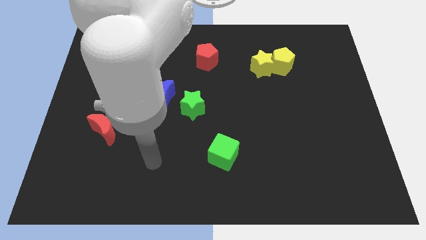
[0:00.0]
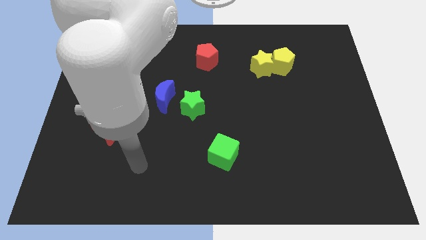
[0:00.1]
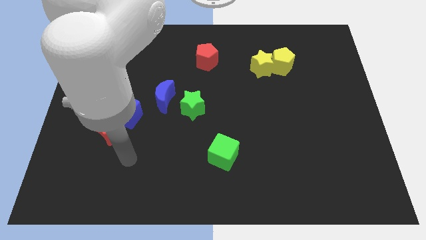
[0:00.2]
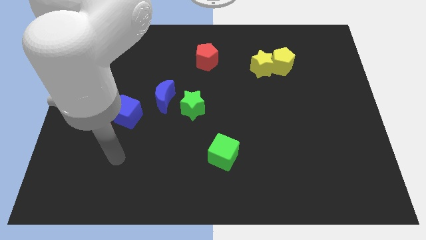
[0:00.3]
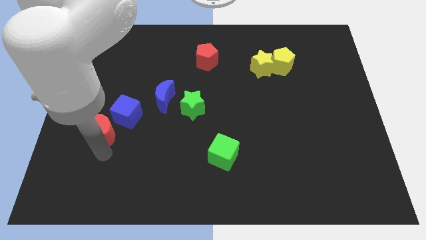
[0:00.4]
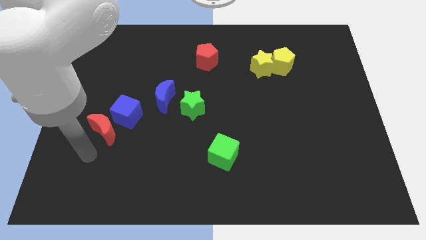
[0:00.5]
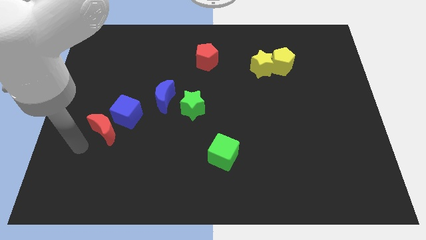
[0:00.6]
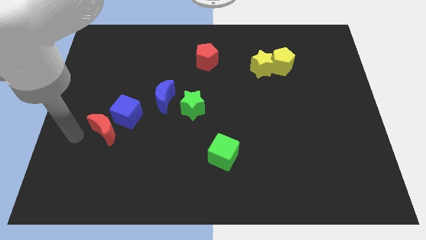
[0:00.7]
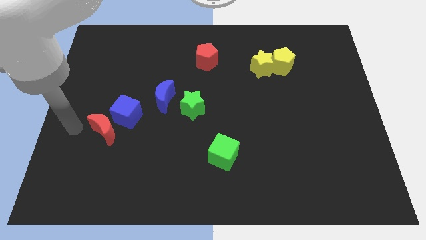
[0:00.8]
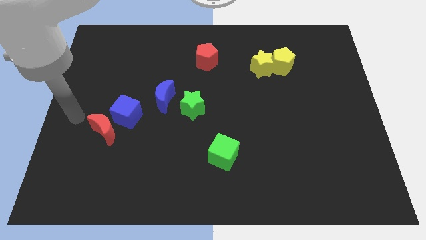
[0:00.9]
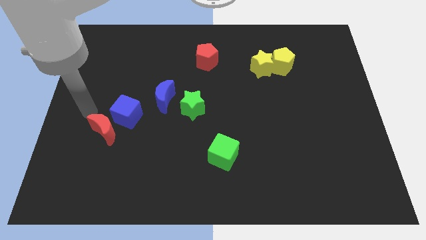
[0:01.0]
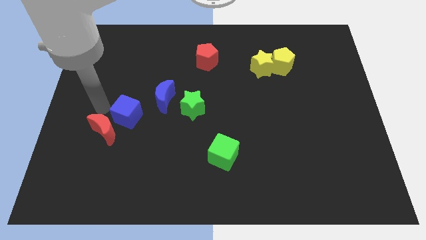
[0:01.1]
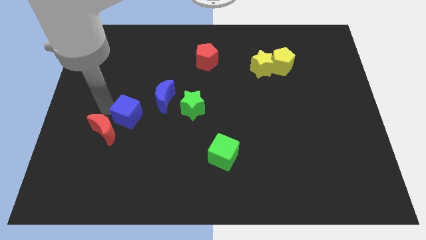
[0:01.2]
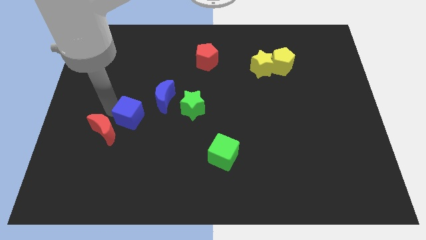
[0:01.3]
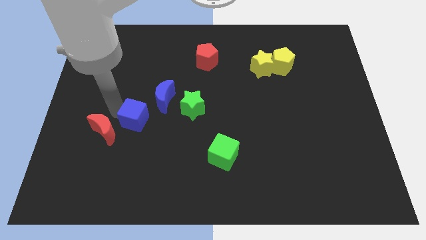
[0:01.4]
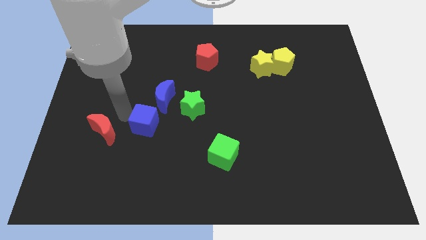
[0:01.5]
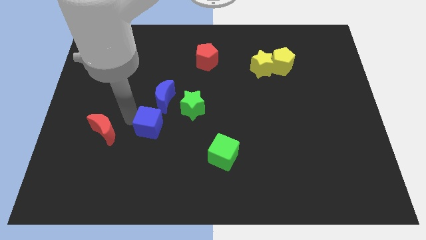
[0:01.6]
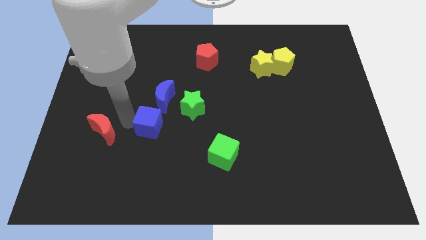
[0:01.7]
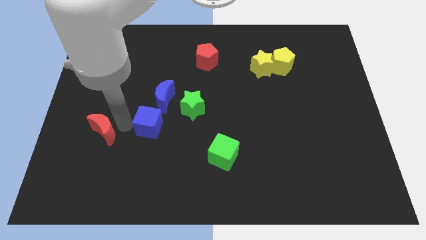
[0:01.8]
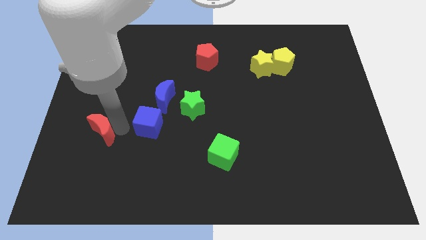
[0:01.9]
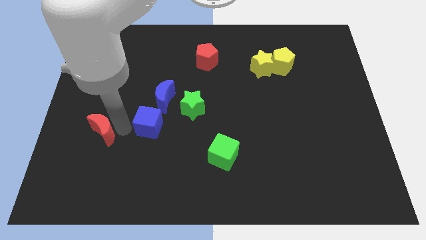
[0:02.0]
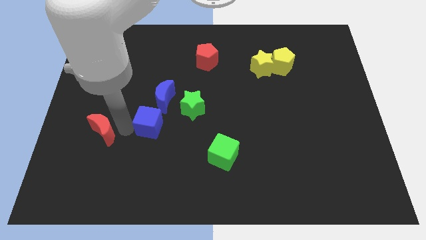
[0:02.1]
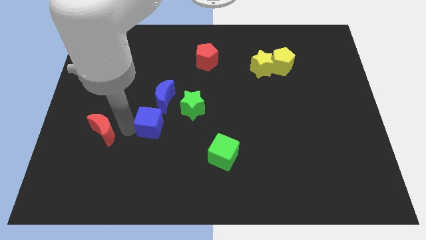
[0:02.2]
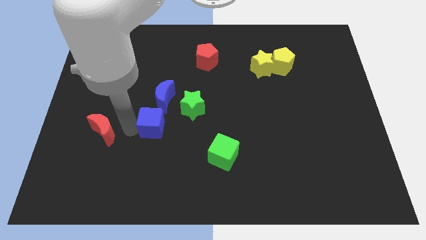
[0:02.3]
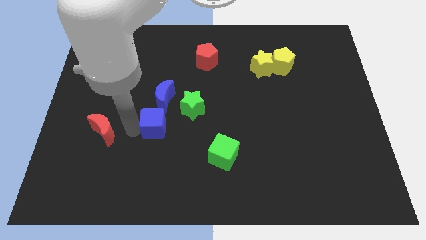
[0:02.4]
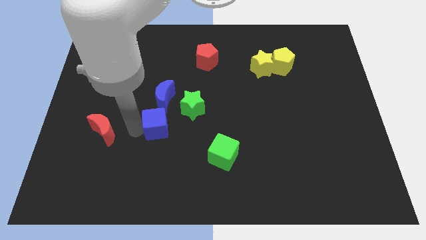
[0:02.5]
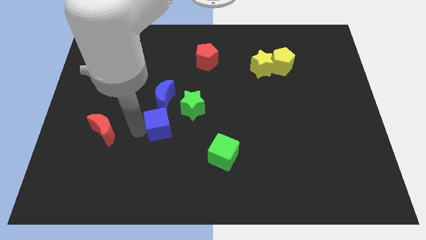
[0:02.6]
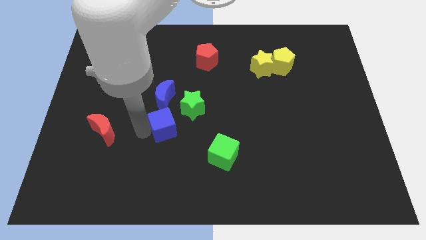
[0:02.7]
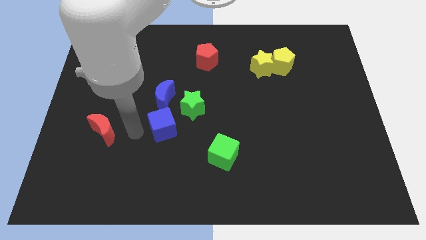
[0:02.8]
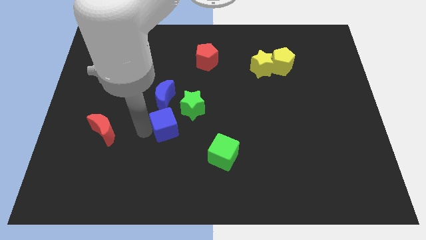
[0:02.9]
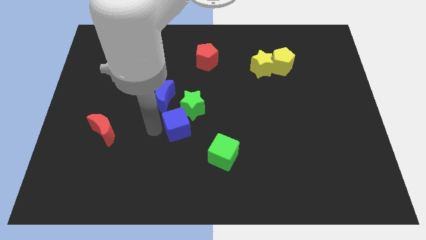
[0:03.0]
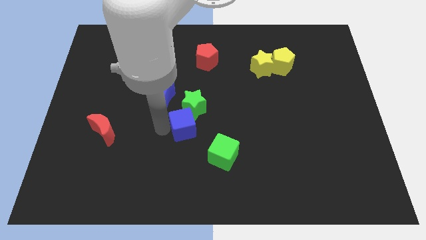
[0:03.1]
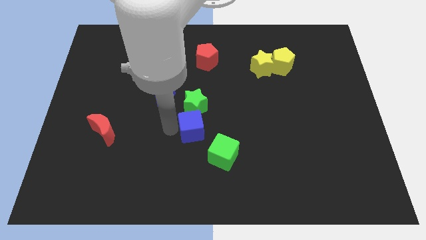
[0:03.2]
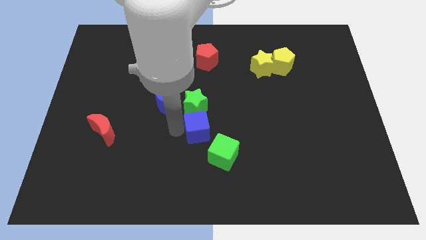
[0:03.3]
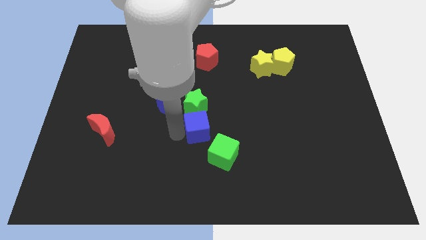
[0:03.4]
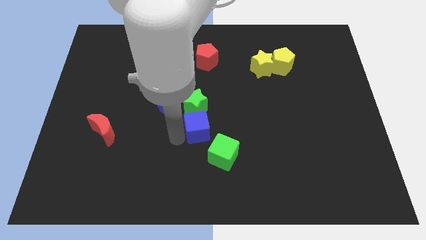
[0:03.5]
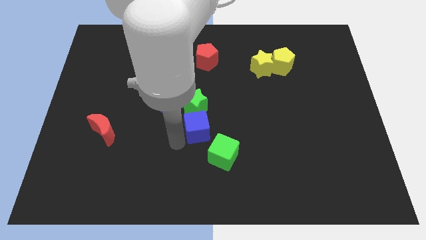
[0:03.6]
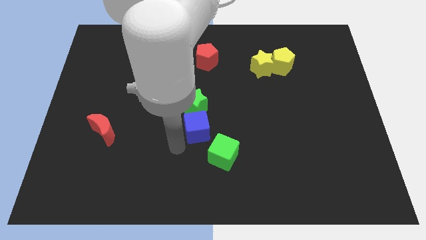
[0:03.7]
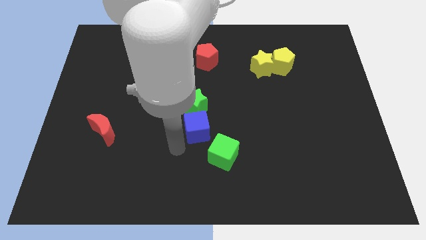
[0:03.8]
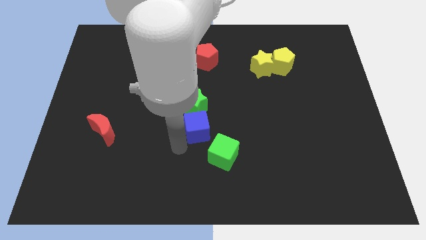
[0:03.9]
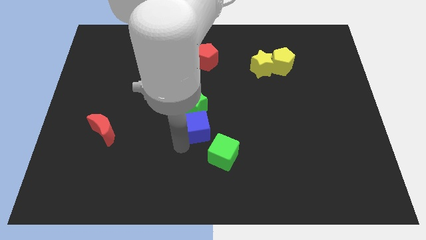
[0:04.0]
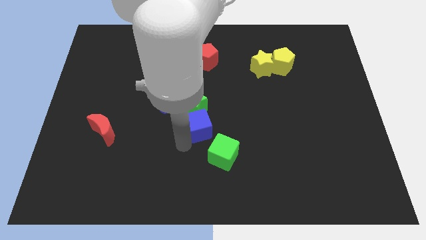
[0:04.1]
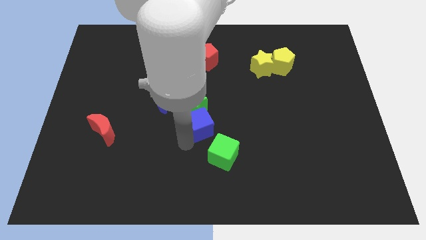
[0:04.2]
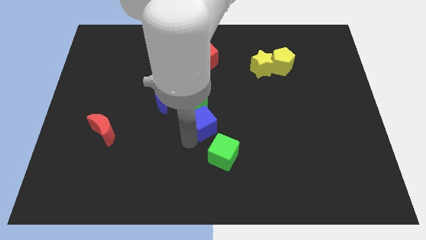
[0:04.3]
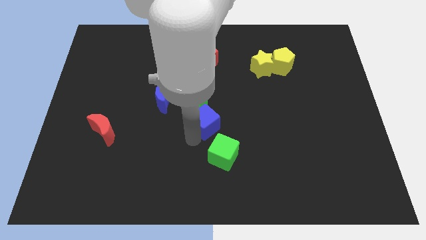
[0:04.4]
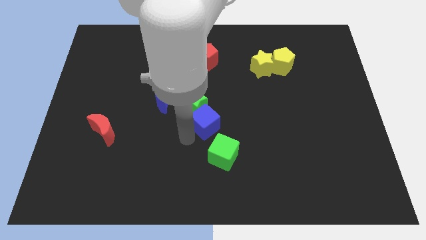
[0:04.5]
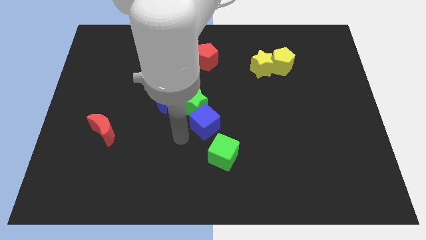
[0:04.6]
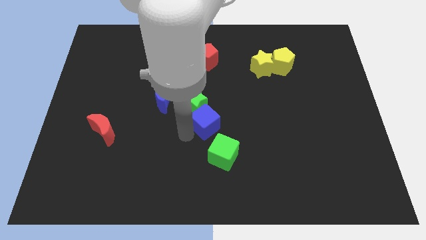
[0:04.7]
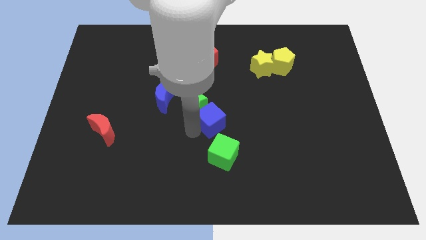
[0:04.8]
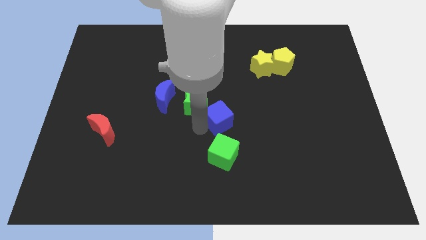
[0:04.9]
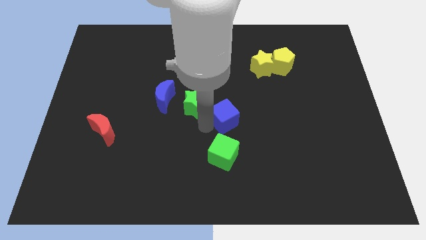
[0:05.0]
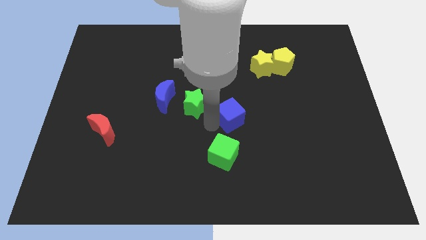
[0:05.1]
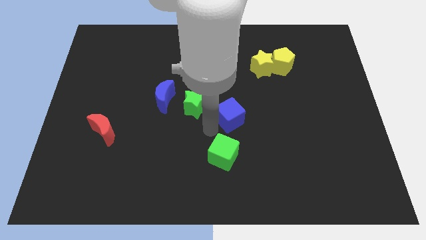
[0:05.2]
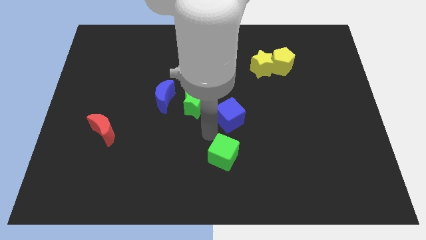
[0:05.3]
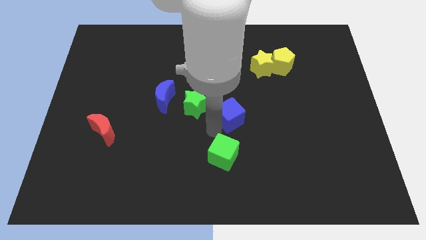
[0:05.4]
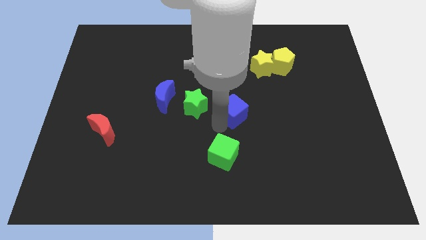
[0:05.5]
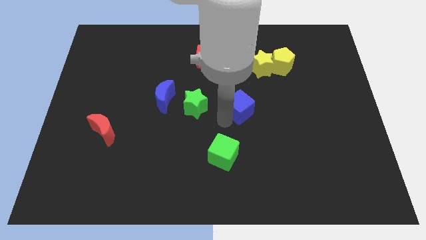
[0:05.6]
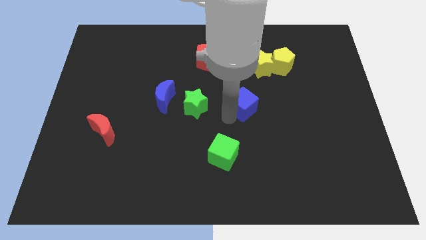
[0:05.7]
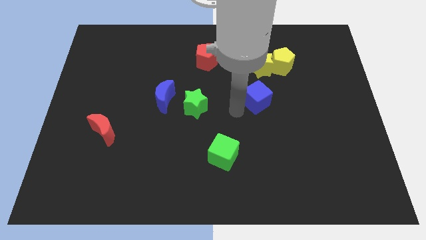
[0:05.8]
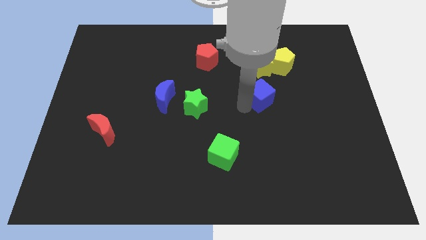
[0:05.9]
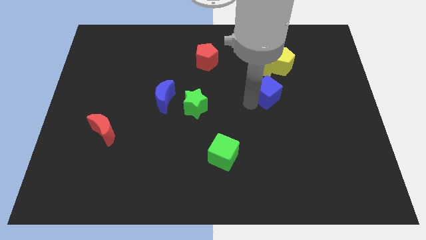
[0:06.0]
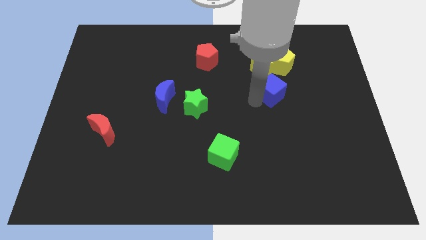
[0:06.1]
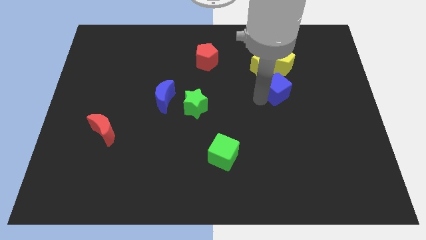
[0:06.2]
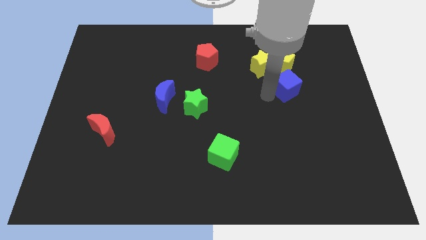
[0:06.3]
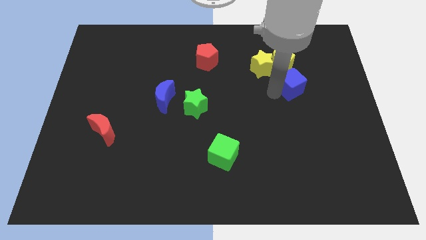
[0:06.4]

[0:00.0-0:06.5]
push the blue cube to the bottom right of the yellow pentagon

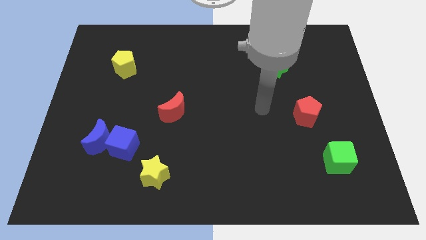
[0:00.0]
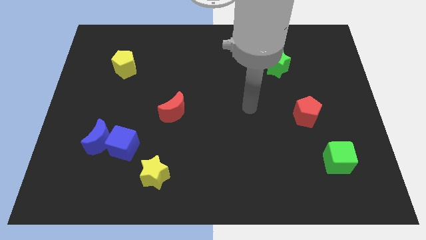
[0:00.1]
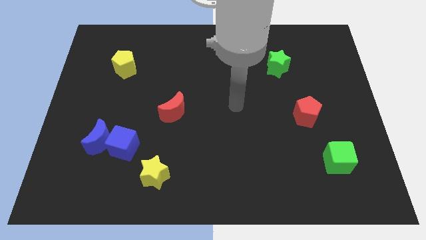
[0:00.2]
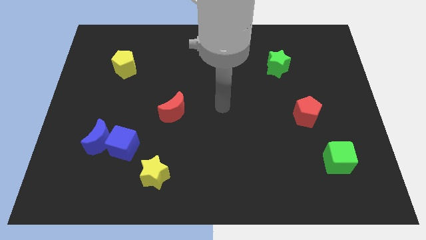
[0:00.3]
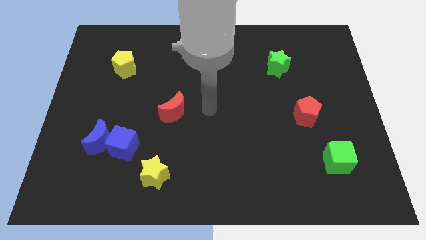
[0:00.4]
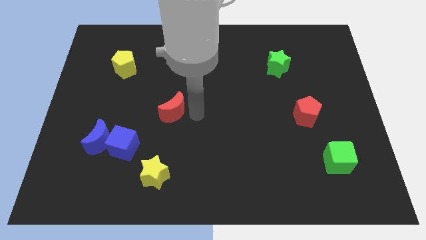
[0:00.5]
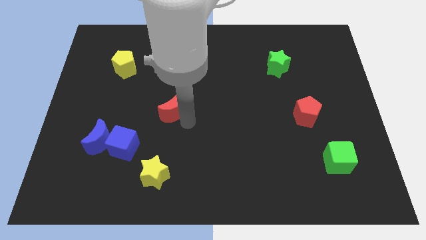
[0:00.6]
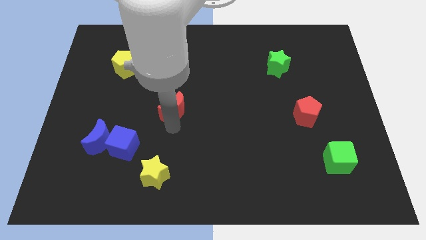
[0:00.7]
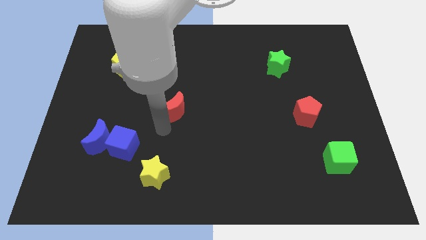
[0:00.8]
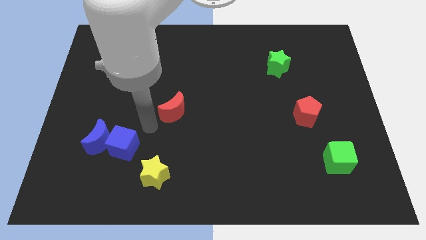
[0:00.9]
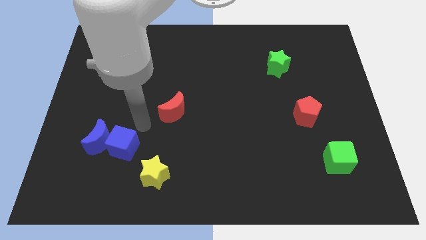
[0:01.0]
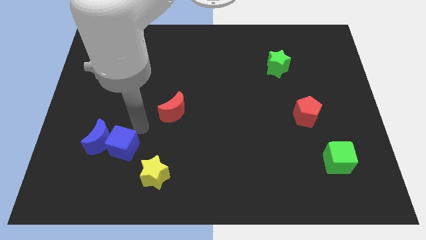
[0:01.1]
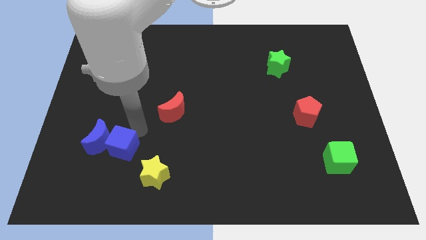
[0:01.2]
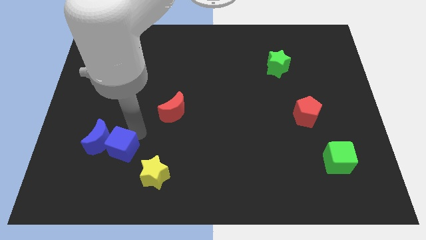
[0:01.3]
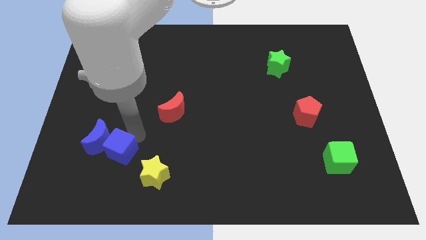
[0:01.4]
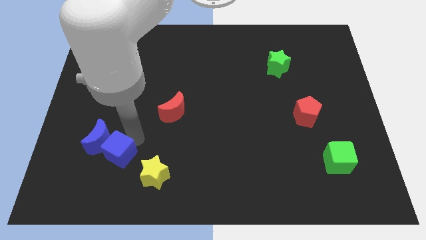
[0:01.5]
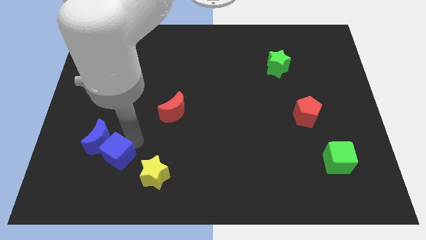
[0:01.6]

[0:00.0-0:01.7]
move the blue cube to the bottom side of the blue moon
